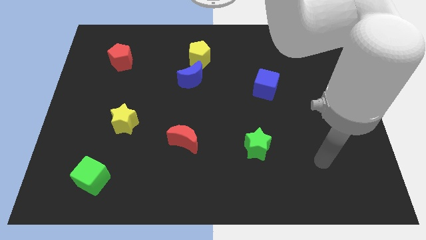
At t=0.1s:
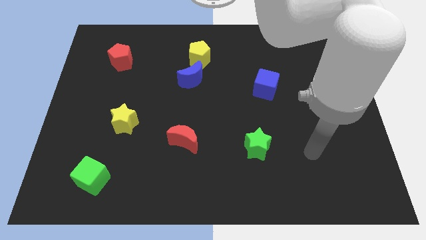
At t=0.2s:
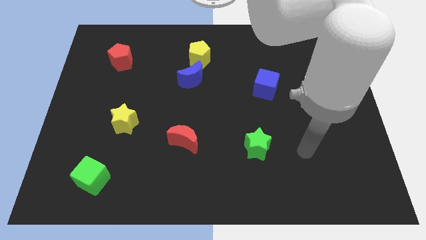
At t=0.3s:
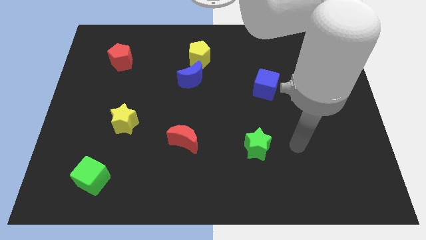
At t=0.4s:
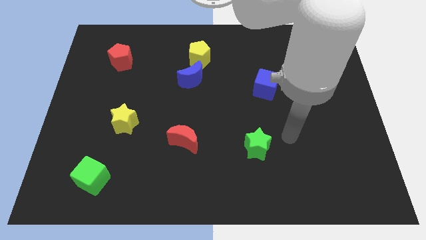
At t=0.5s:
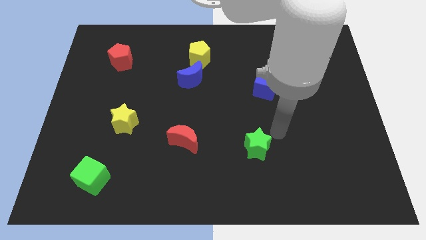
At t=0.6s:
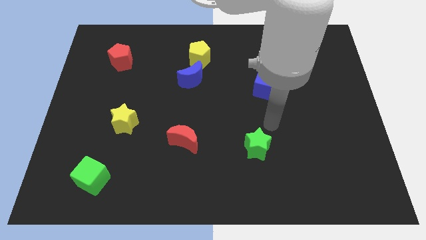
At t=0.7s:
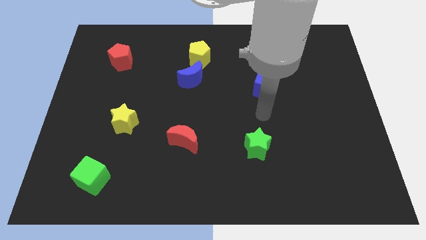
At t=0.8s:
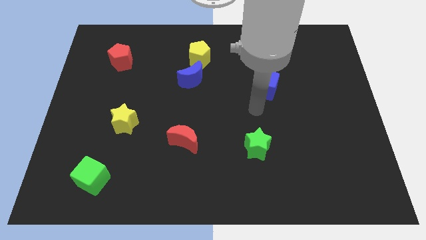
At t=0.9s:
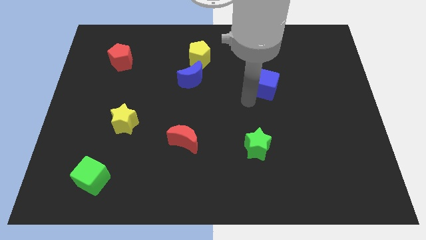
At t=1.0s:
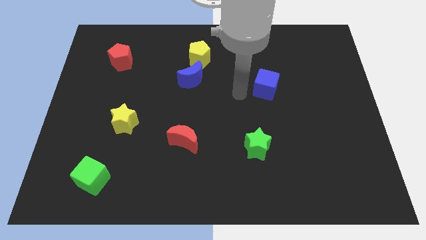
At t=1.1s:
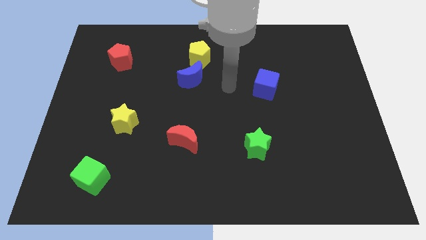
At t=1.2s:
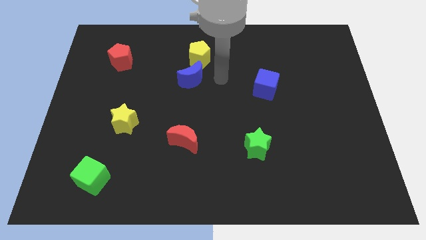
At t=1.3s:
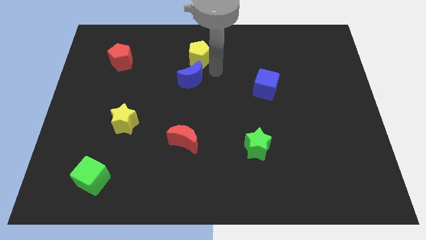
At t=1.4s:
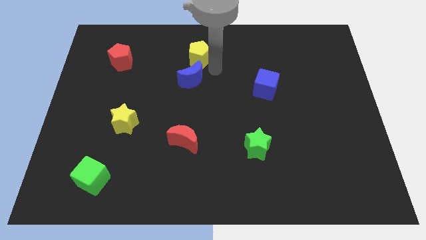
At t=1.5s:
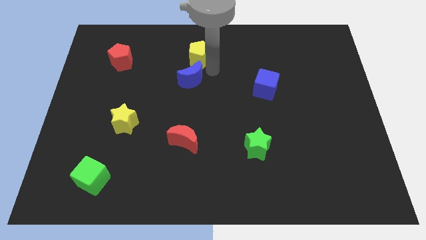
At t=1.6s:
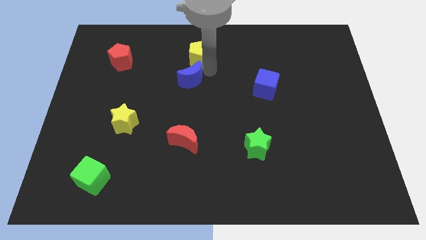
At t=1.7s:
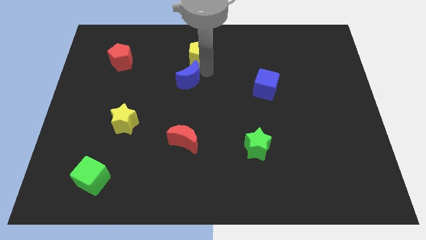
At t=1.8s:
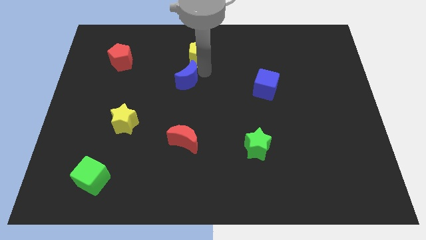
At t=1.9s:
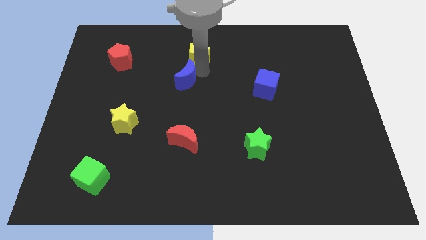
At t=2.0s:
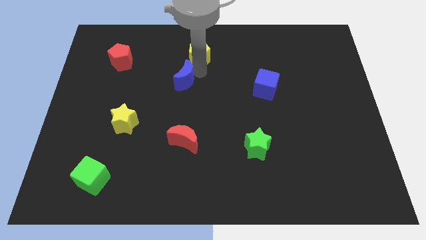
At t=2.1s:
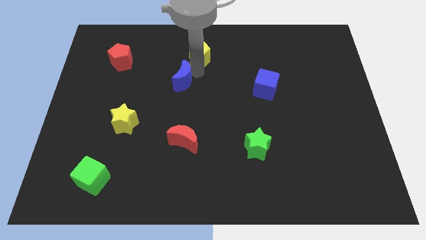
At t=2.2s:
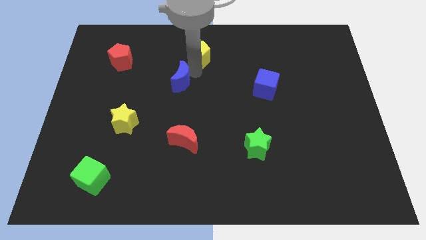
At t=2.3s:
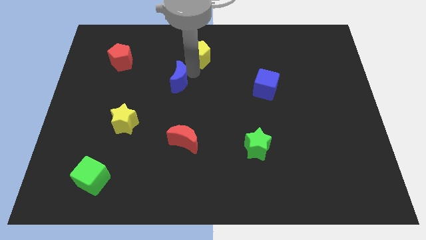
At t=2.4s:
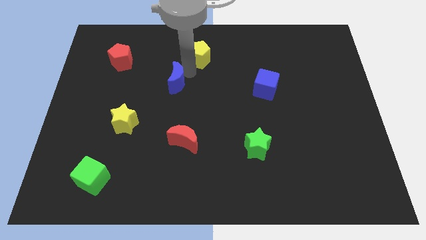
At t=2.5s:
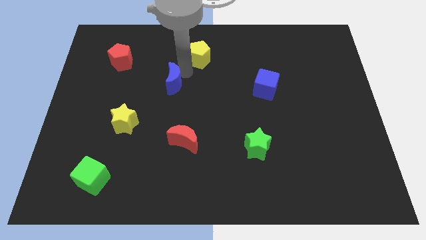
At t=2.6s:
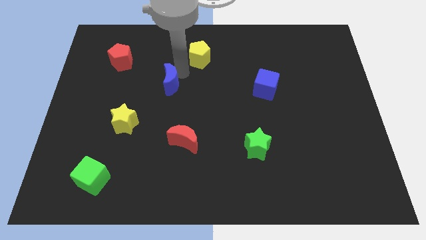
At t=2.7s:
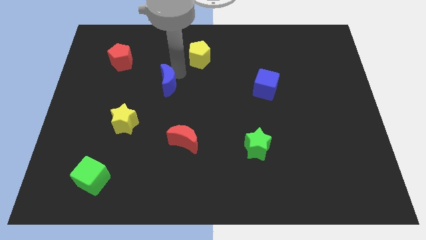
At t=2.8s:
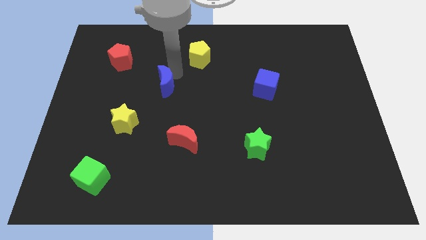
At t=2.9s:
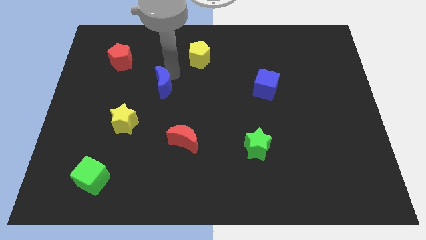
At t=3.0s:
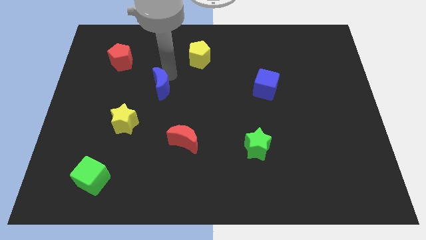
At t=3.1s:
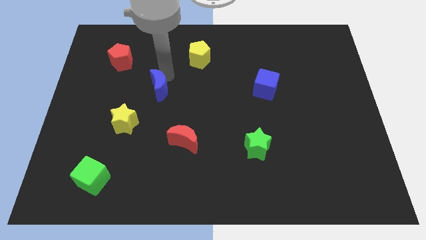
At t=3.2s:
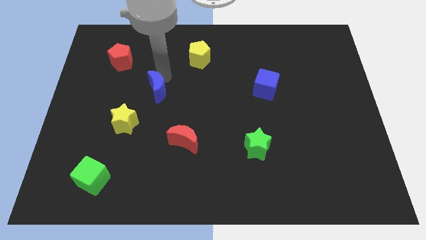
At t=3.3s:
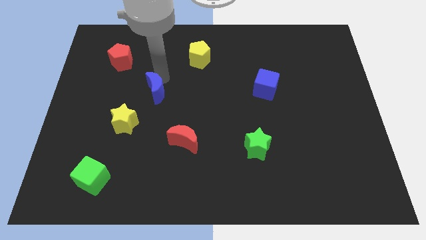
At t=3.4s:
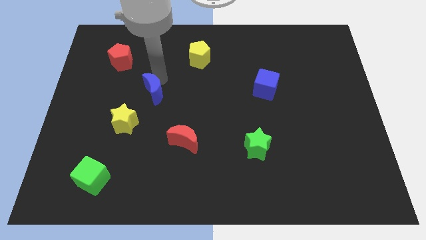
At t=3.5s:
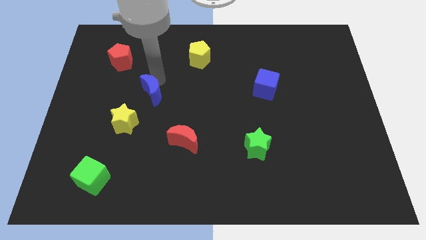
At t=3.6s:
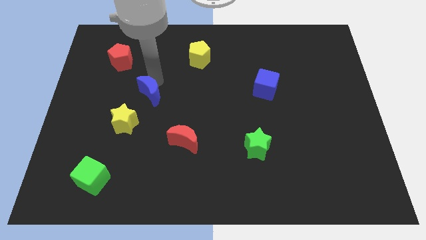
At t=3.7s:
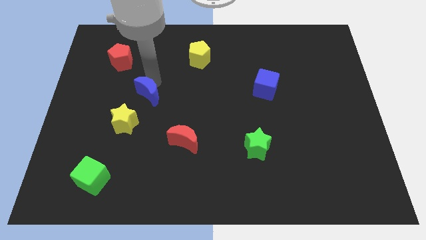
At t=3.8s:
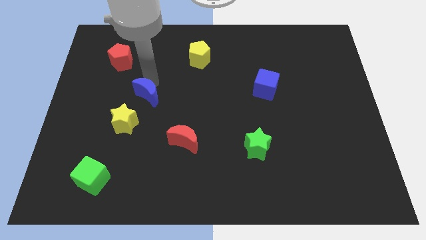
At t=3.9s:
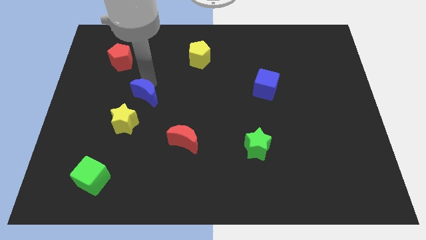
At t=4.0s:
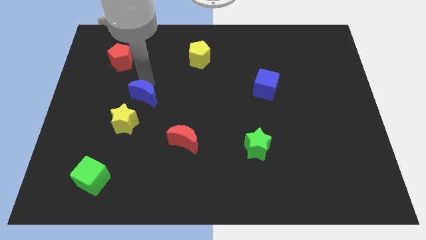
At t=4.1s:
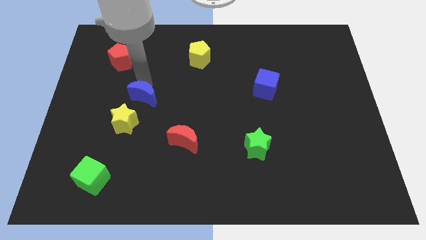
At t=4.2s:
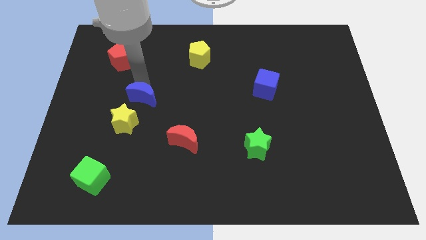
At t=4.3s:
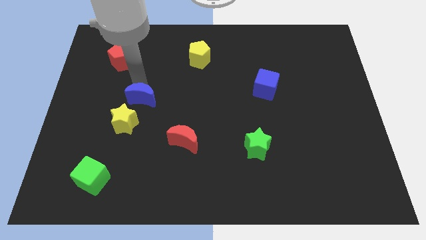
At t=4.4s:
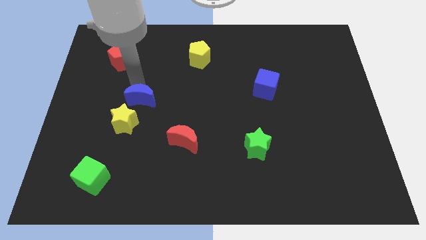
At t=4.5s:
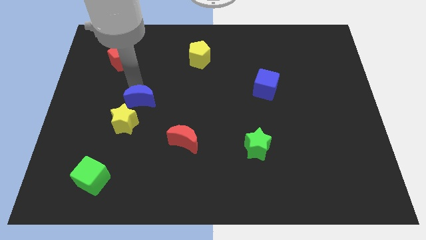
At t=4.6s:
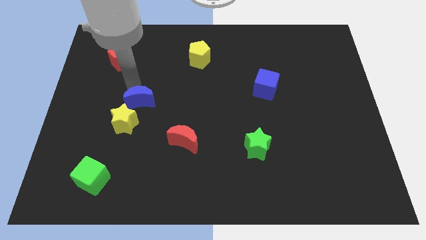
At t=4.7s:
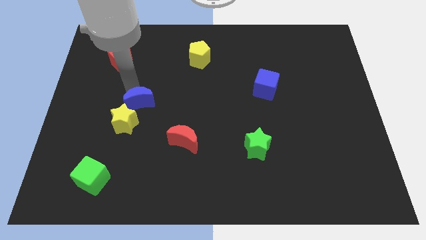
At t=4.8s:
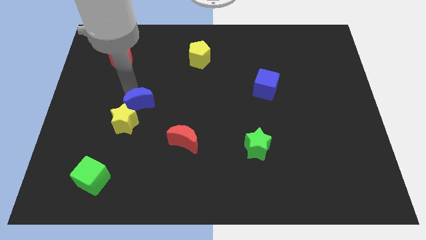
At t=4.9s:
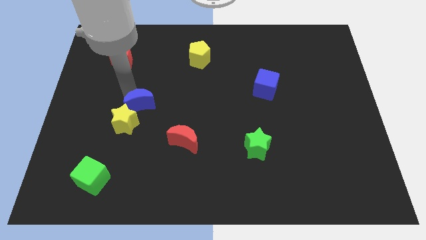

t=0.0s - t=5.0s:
put the blue moon next to the yellow star

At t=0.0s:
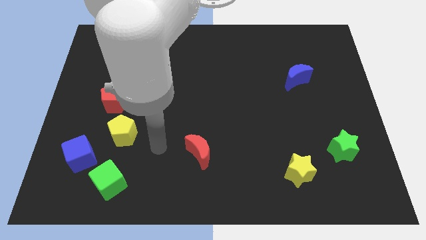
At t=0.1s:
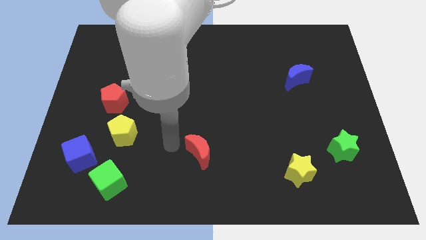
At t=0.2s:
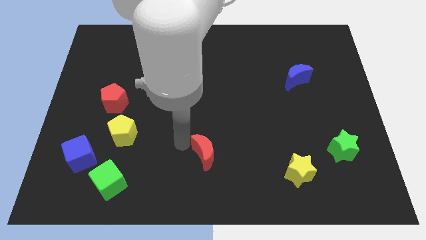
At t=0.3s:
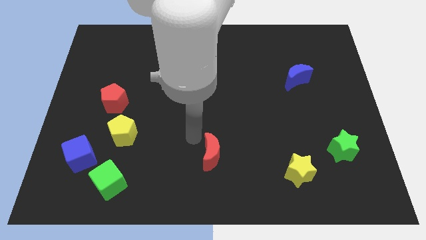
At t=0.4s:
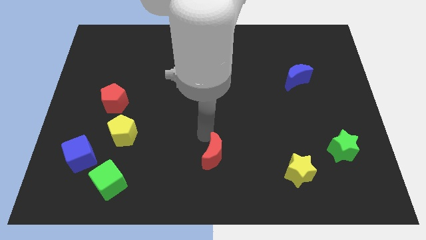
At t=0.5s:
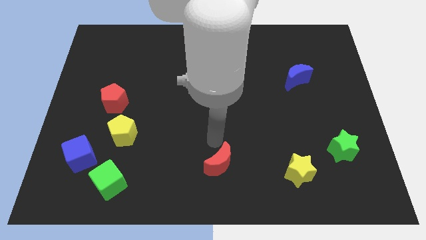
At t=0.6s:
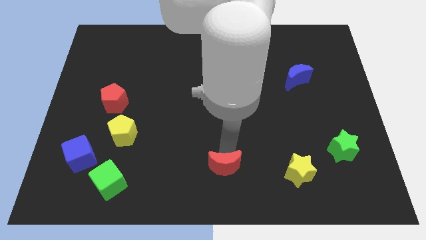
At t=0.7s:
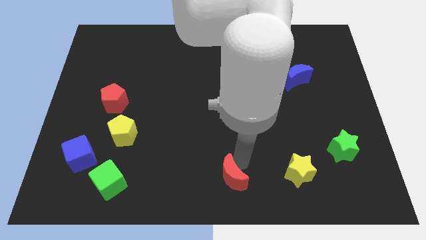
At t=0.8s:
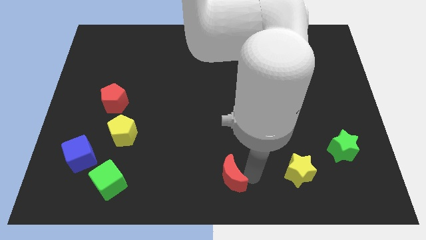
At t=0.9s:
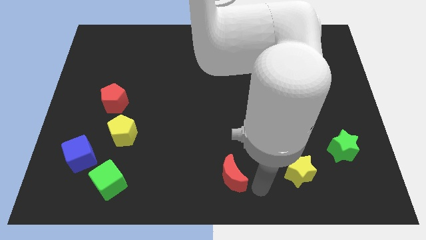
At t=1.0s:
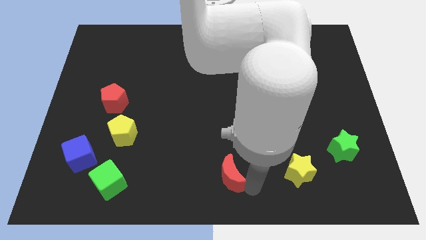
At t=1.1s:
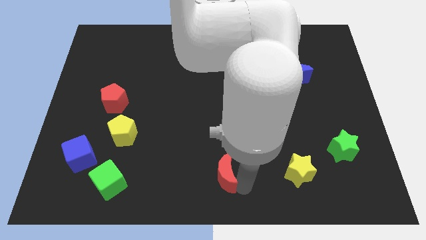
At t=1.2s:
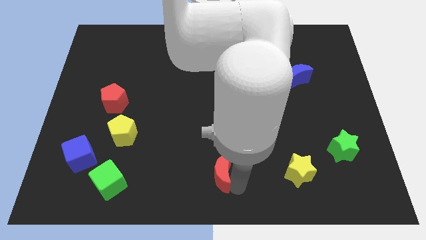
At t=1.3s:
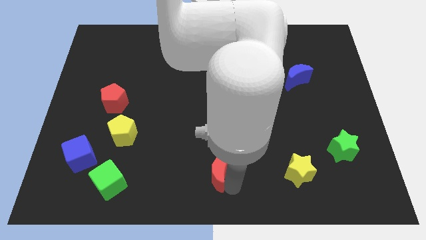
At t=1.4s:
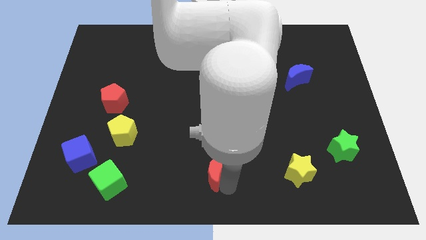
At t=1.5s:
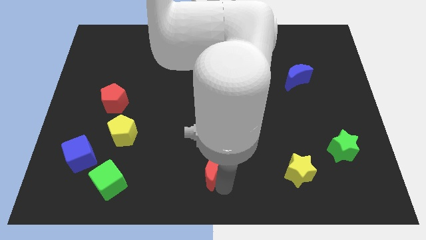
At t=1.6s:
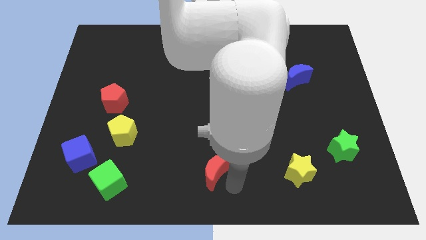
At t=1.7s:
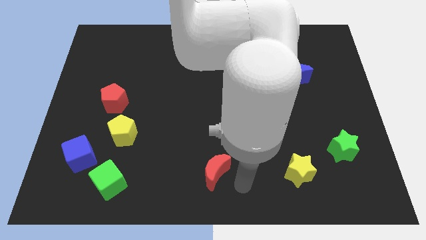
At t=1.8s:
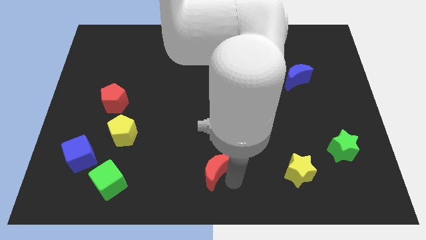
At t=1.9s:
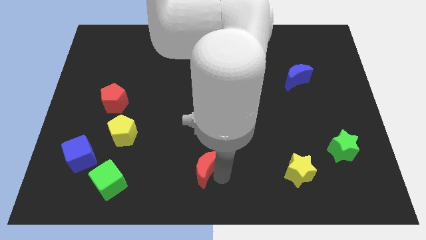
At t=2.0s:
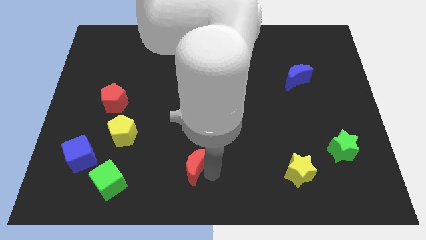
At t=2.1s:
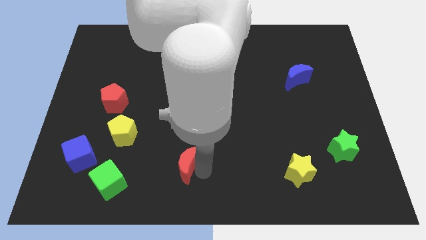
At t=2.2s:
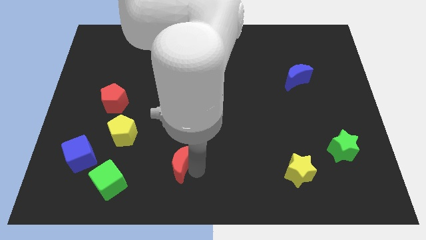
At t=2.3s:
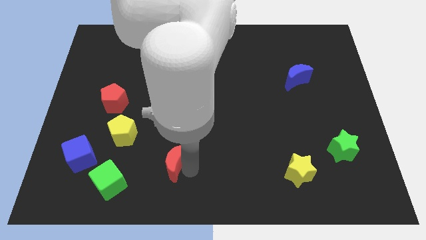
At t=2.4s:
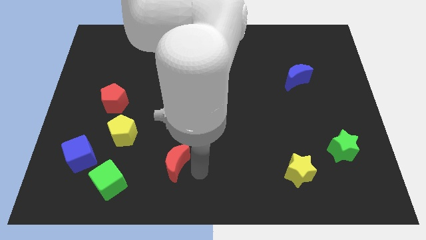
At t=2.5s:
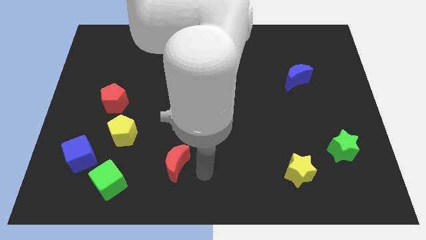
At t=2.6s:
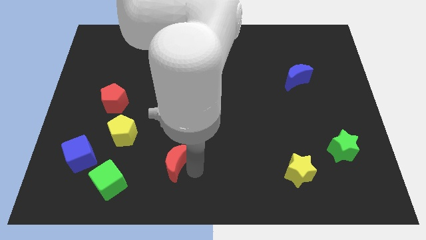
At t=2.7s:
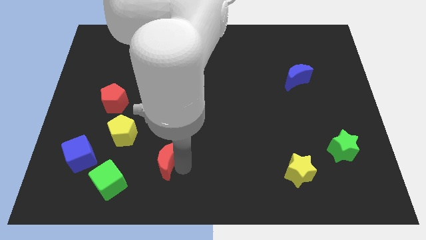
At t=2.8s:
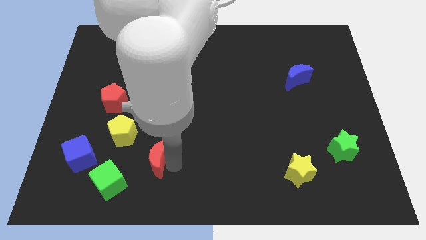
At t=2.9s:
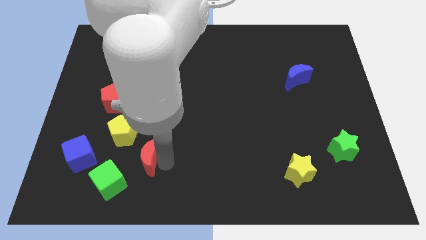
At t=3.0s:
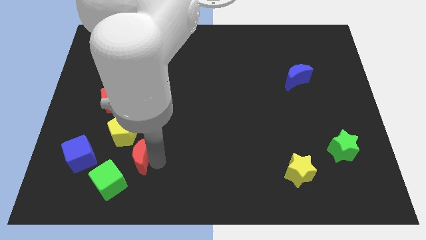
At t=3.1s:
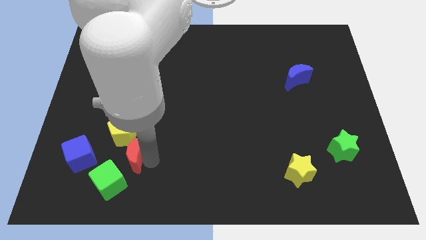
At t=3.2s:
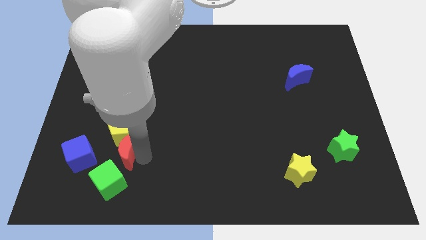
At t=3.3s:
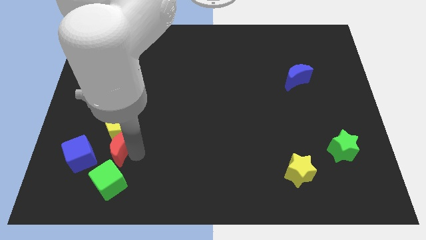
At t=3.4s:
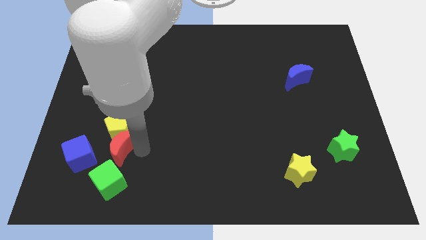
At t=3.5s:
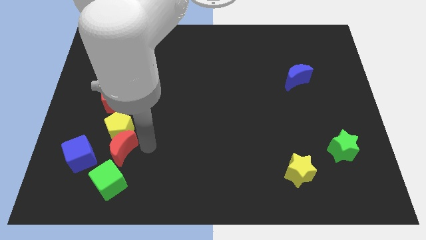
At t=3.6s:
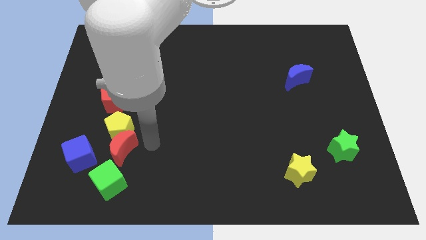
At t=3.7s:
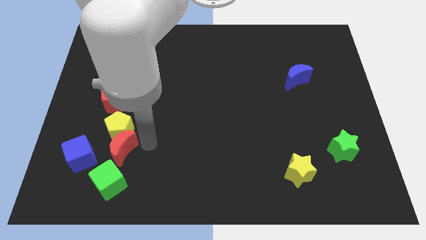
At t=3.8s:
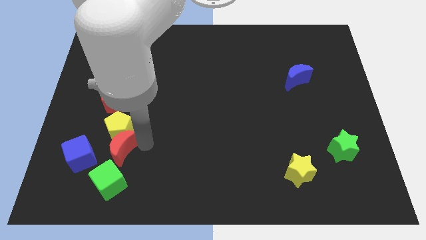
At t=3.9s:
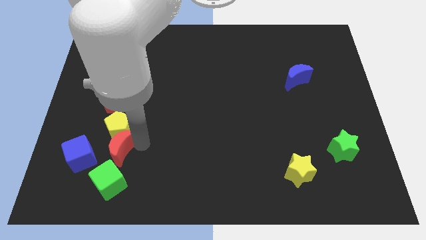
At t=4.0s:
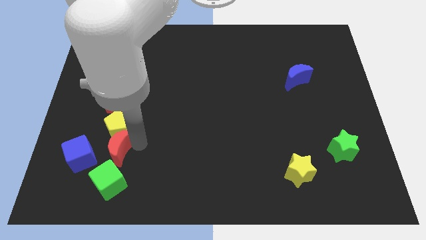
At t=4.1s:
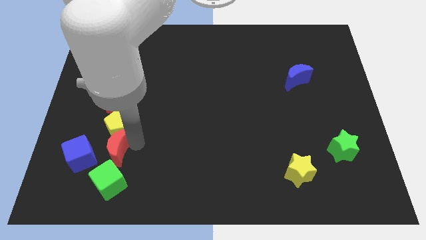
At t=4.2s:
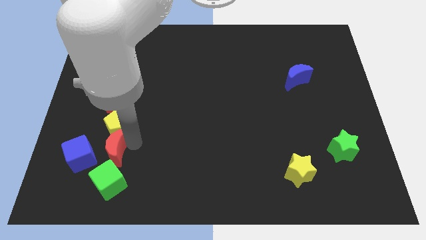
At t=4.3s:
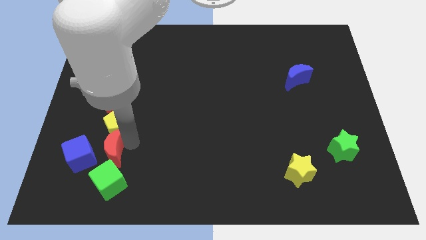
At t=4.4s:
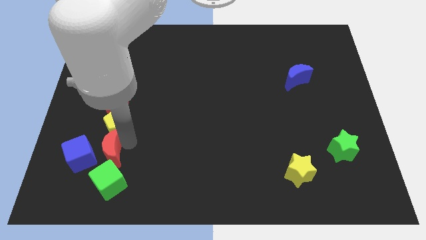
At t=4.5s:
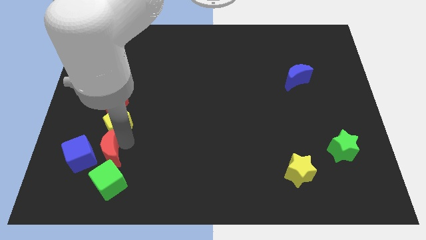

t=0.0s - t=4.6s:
put the red moon close to the blue cube
